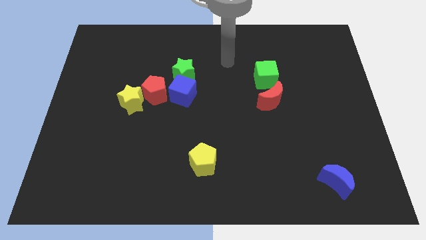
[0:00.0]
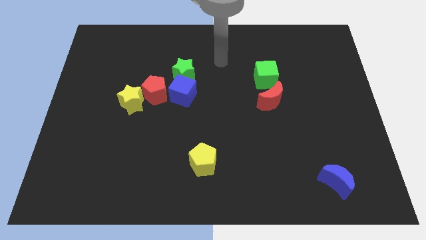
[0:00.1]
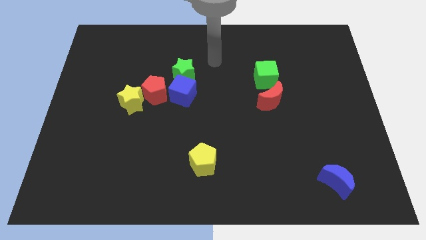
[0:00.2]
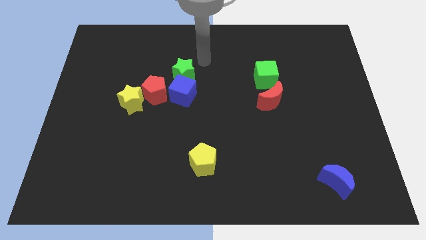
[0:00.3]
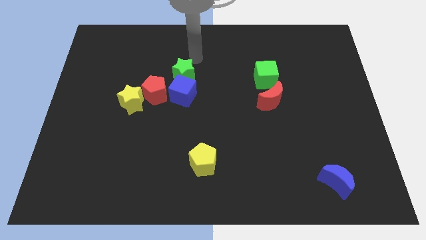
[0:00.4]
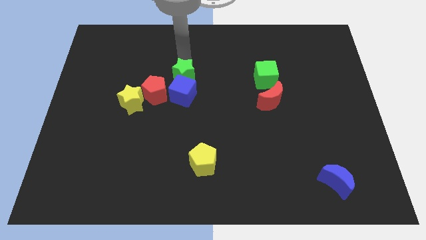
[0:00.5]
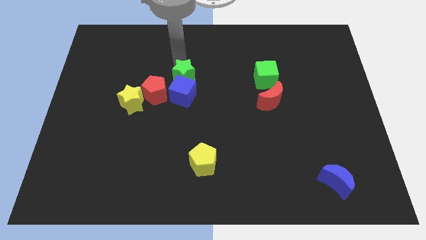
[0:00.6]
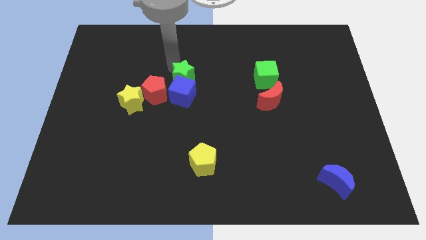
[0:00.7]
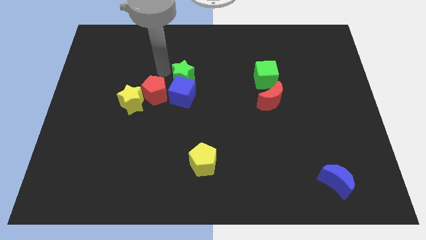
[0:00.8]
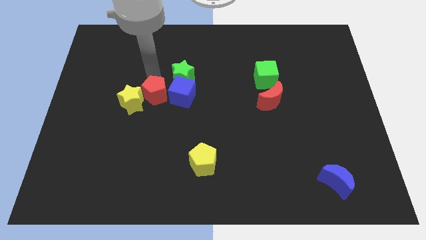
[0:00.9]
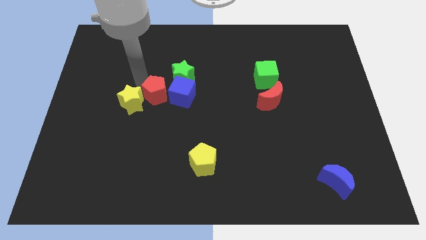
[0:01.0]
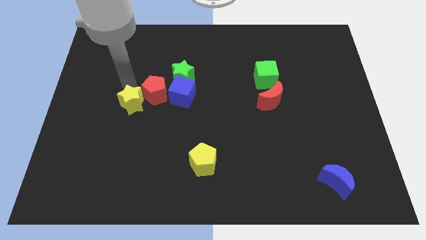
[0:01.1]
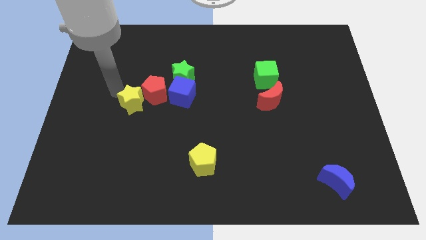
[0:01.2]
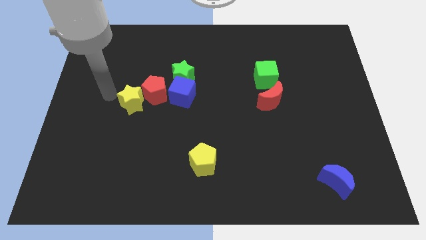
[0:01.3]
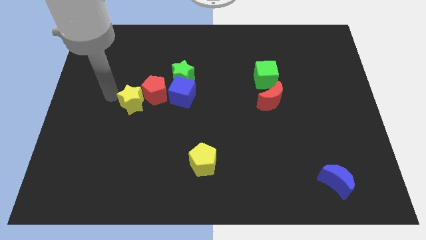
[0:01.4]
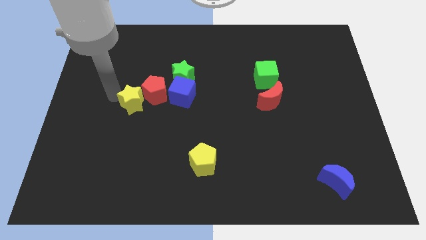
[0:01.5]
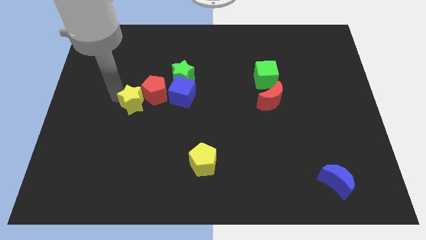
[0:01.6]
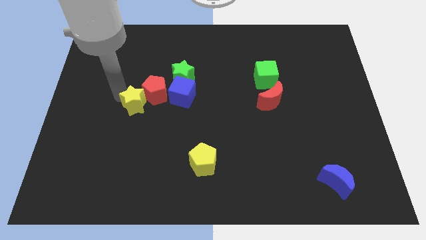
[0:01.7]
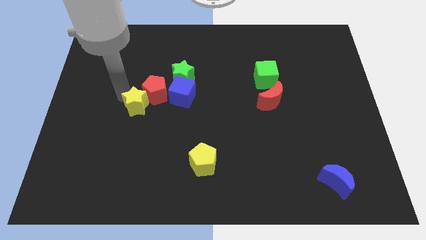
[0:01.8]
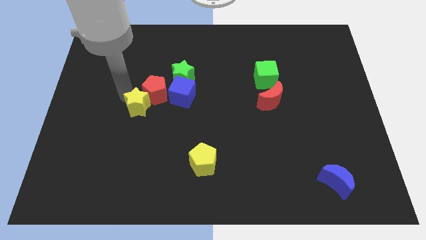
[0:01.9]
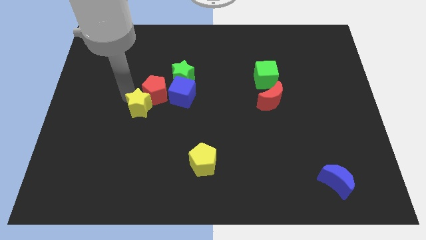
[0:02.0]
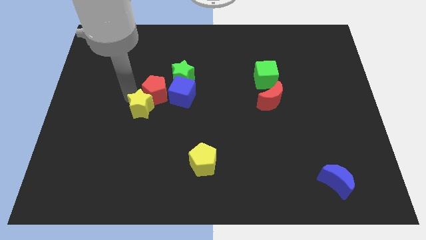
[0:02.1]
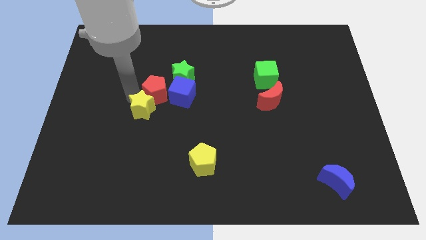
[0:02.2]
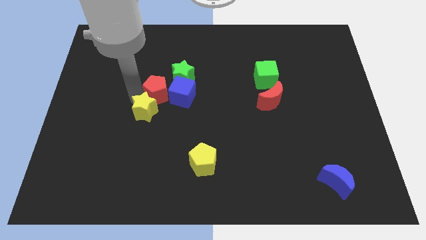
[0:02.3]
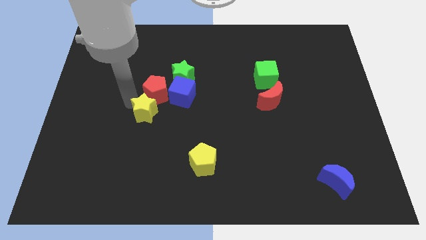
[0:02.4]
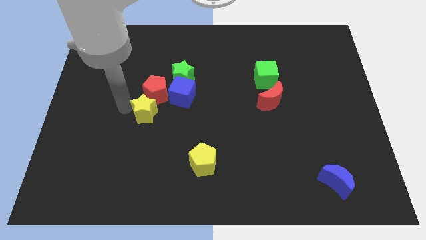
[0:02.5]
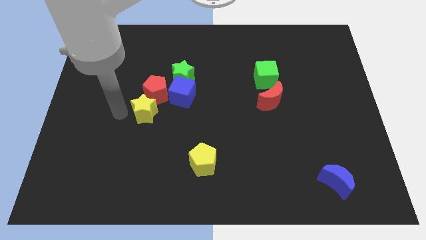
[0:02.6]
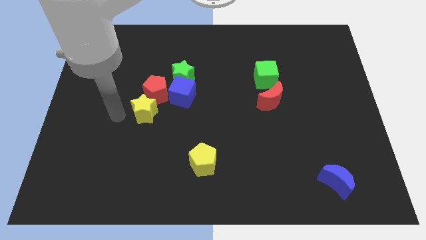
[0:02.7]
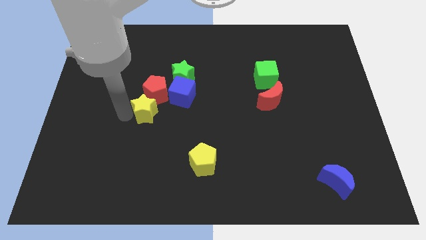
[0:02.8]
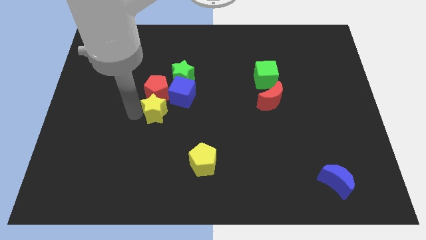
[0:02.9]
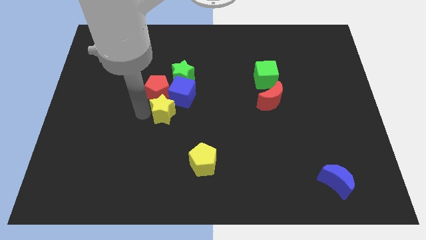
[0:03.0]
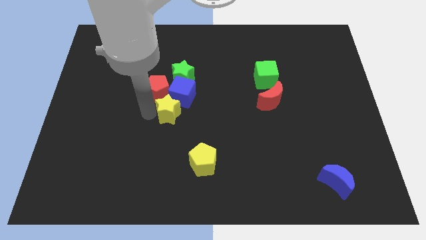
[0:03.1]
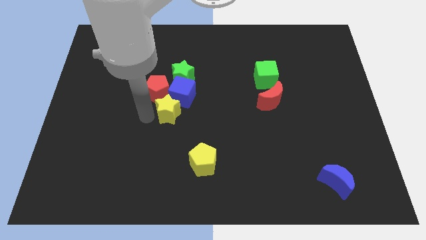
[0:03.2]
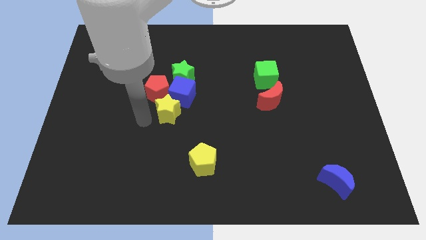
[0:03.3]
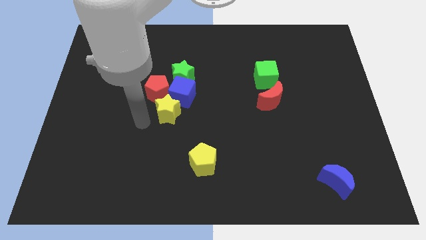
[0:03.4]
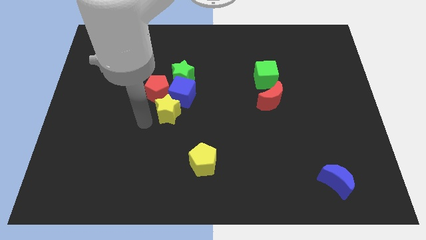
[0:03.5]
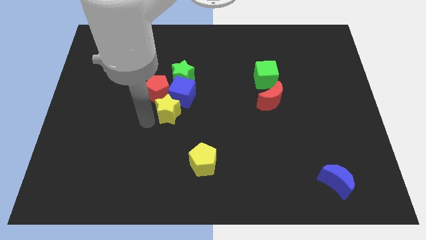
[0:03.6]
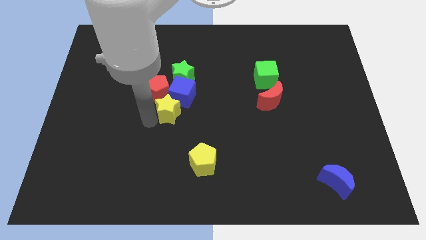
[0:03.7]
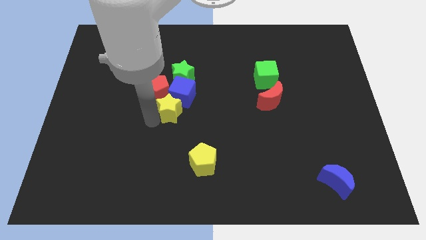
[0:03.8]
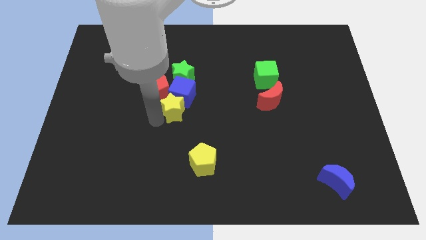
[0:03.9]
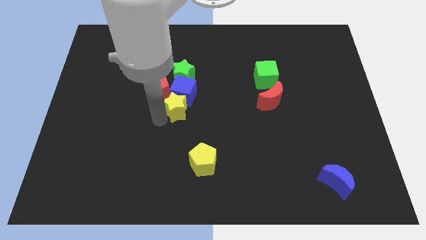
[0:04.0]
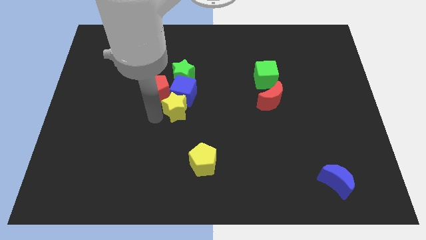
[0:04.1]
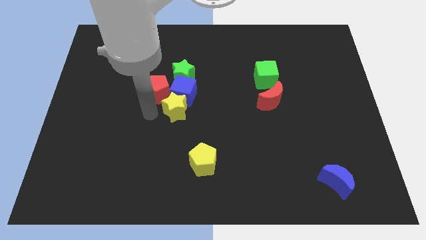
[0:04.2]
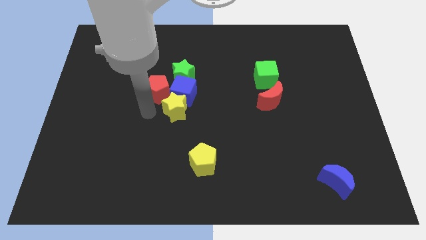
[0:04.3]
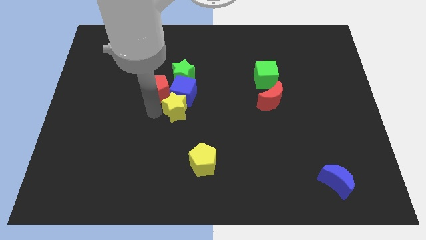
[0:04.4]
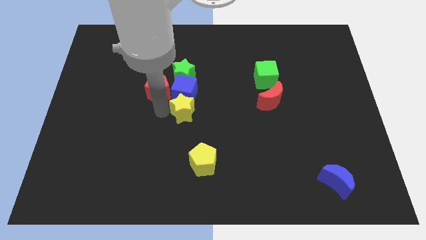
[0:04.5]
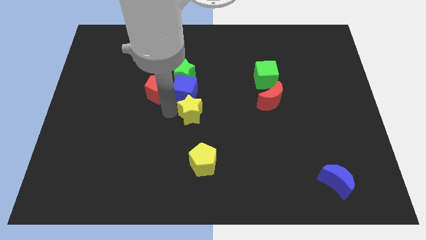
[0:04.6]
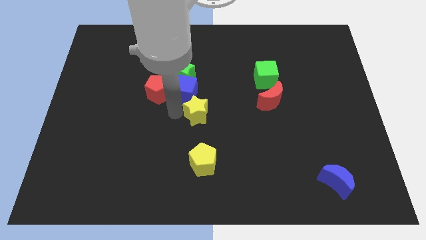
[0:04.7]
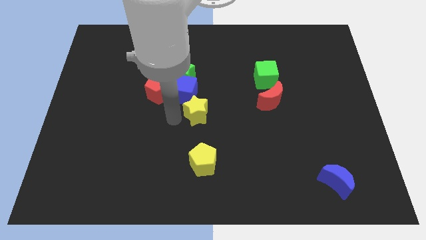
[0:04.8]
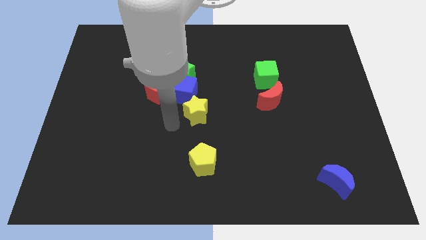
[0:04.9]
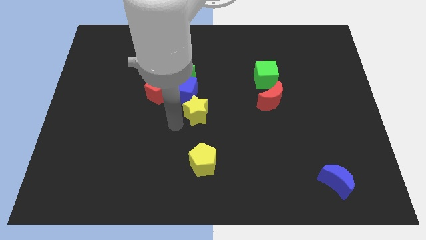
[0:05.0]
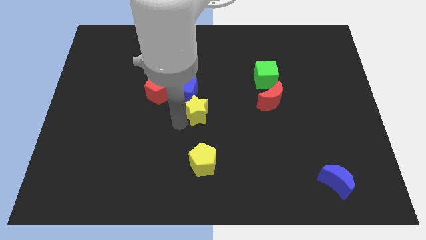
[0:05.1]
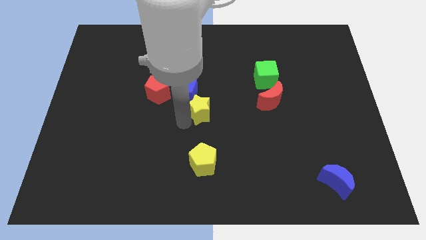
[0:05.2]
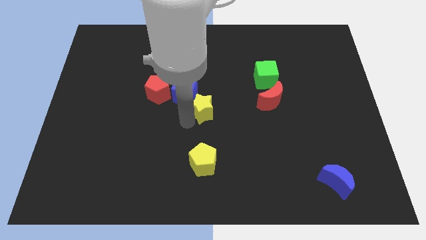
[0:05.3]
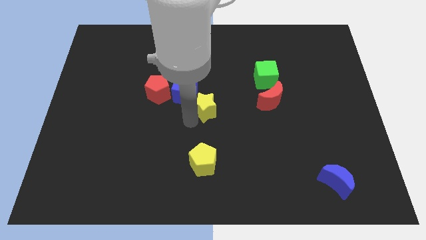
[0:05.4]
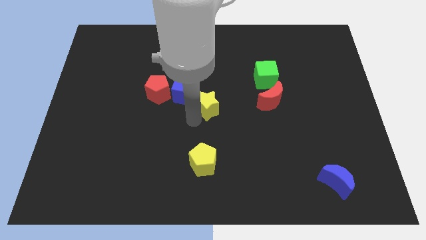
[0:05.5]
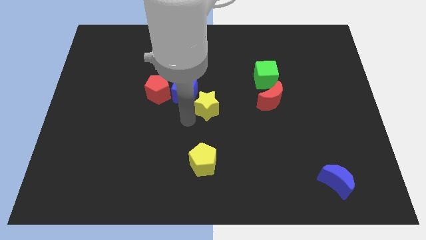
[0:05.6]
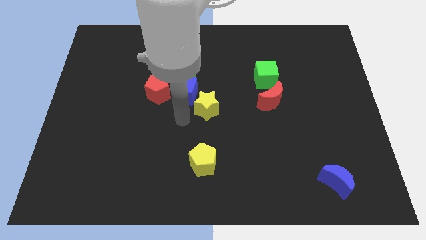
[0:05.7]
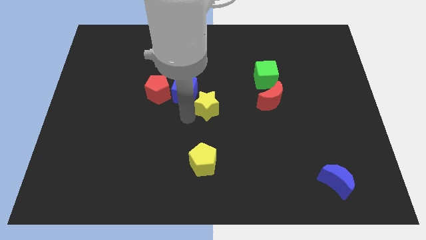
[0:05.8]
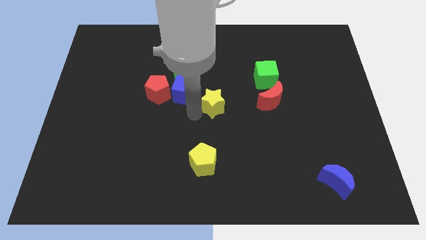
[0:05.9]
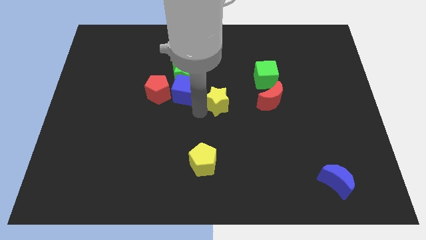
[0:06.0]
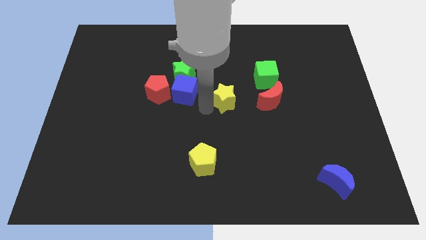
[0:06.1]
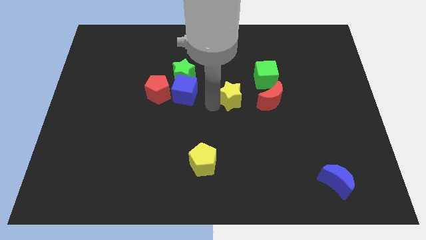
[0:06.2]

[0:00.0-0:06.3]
move the yellow star to the bottom left side of the green cube

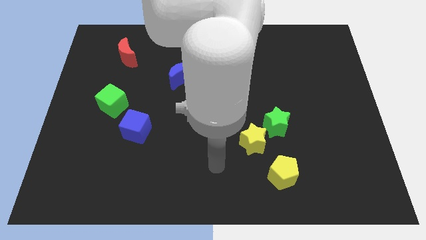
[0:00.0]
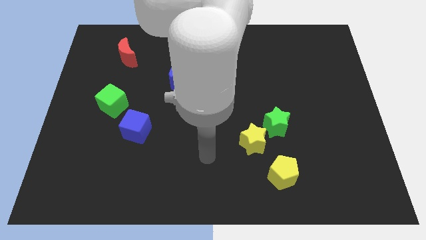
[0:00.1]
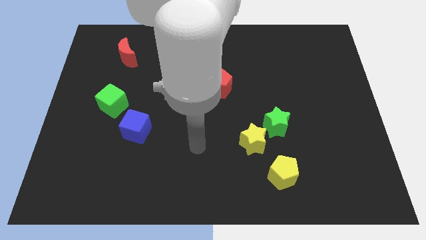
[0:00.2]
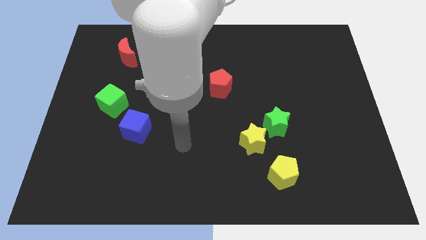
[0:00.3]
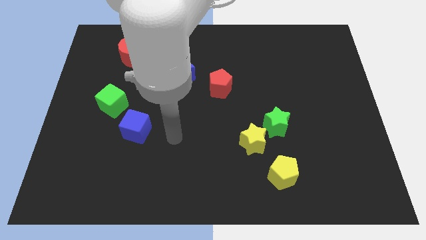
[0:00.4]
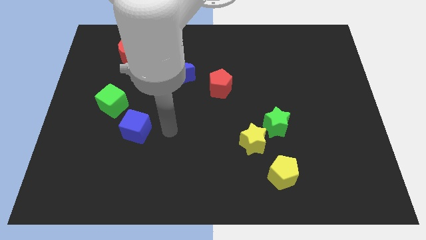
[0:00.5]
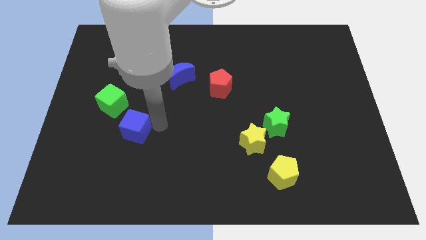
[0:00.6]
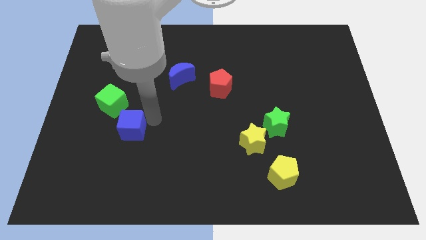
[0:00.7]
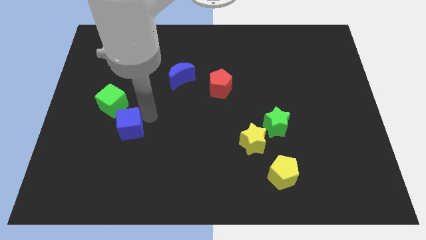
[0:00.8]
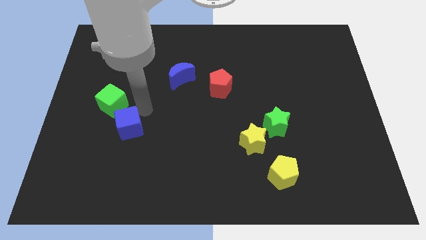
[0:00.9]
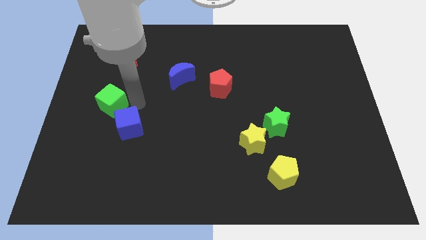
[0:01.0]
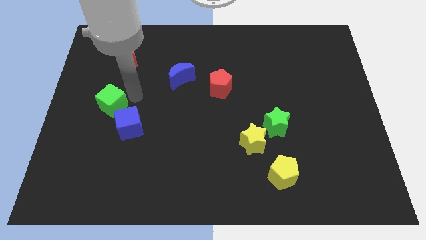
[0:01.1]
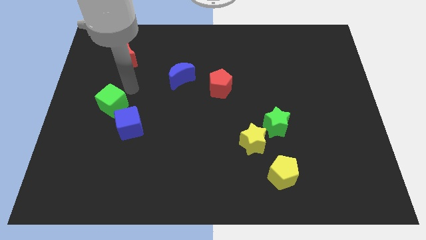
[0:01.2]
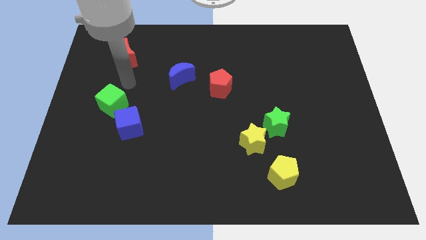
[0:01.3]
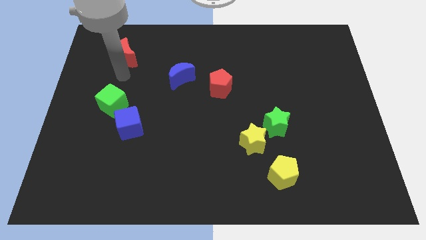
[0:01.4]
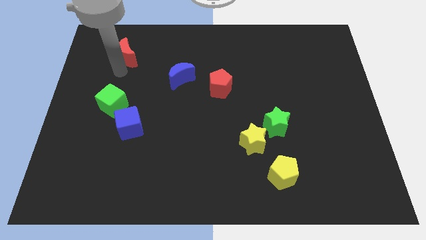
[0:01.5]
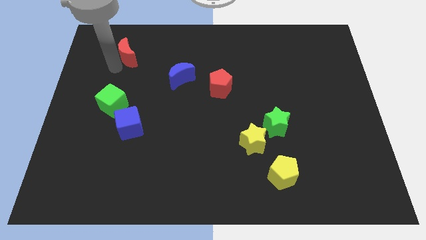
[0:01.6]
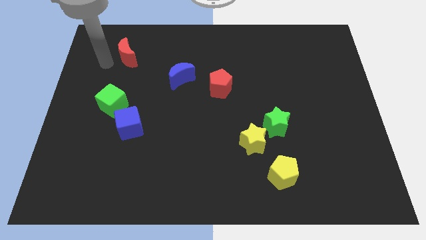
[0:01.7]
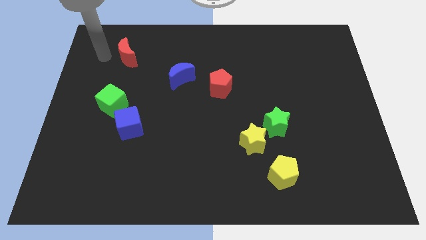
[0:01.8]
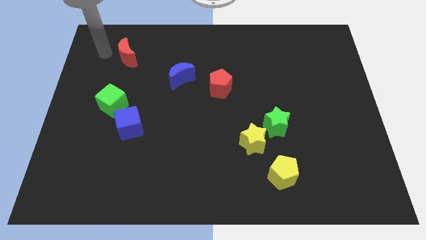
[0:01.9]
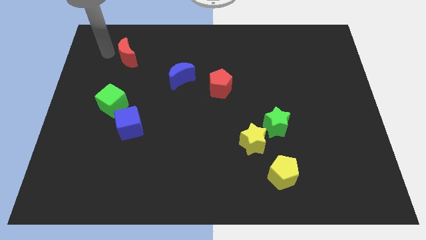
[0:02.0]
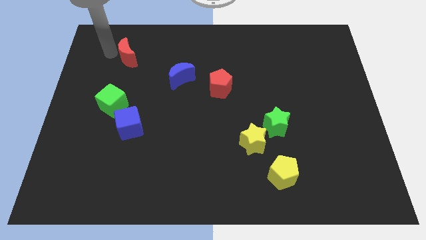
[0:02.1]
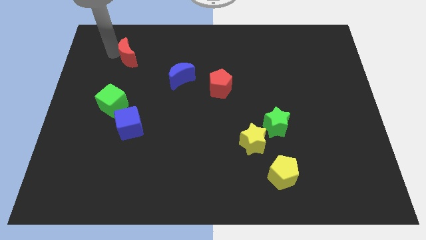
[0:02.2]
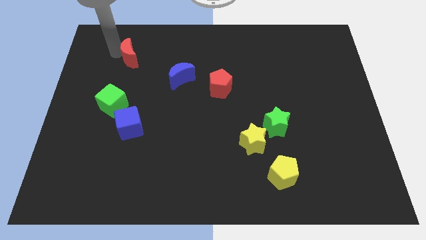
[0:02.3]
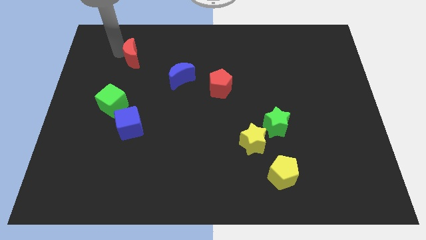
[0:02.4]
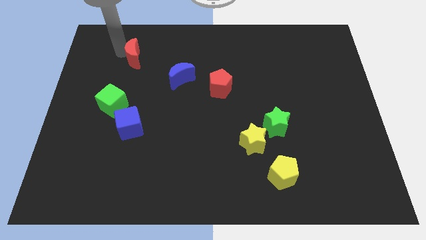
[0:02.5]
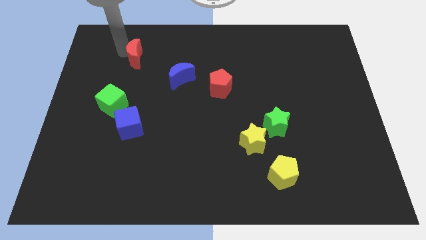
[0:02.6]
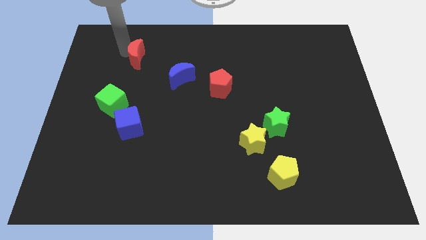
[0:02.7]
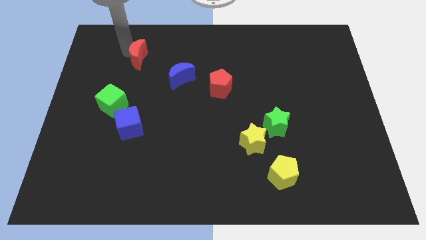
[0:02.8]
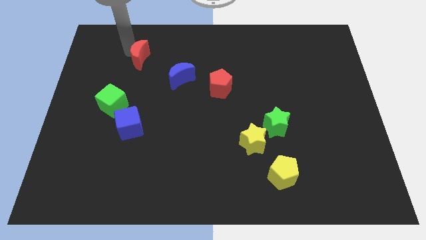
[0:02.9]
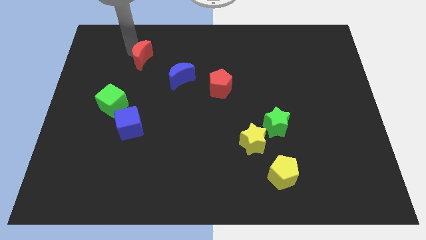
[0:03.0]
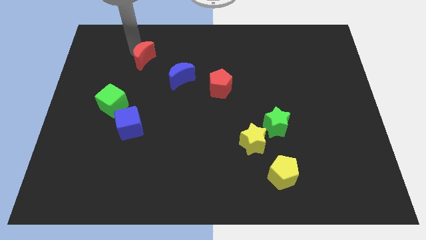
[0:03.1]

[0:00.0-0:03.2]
push the red moon to the top left side of the blue moon
